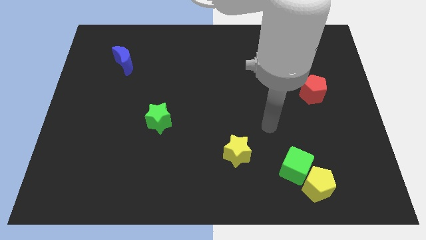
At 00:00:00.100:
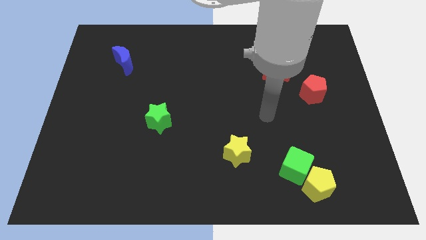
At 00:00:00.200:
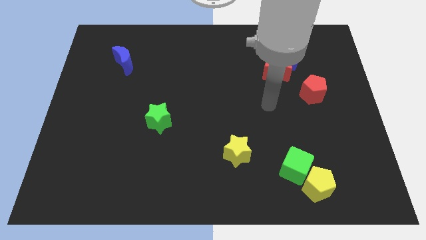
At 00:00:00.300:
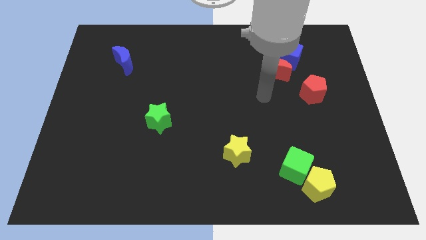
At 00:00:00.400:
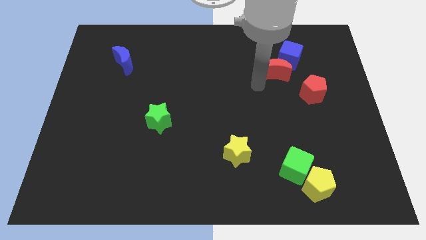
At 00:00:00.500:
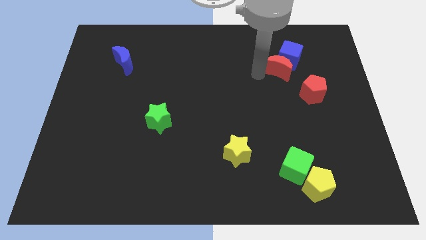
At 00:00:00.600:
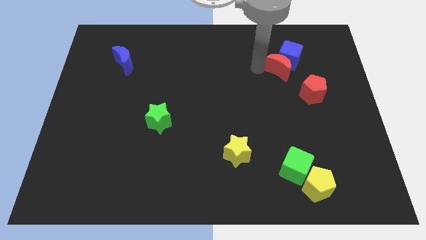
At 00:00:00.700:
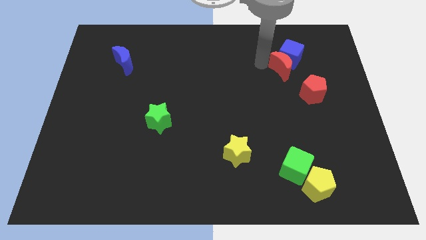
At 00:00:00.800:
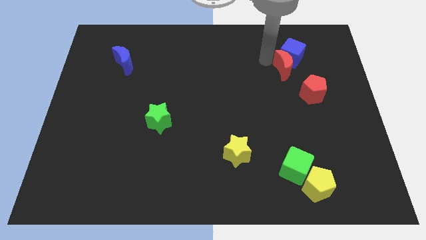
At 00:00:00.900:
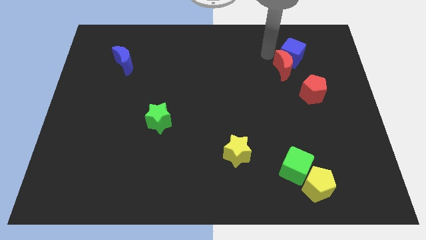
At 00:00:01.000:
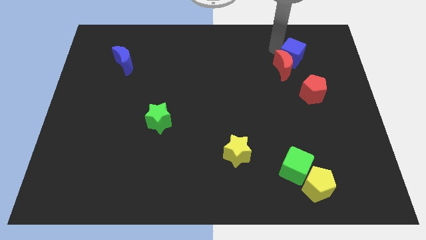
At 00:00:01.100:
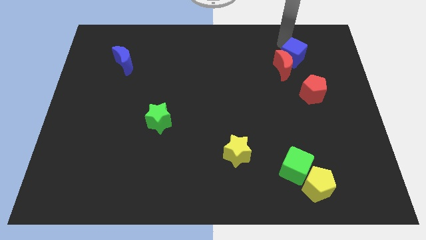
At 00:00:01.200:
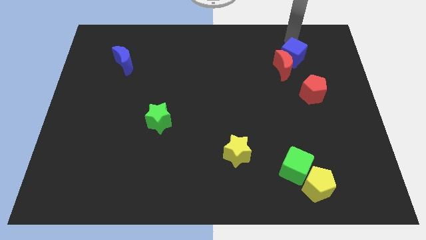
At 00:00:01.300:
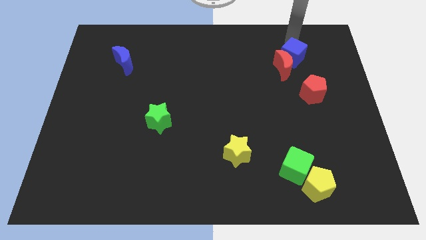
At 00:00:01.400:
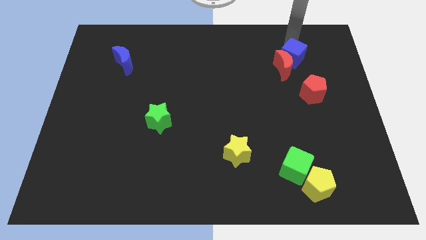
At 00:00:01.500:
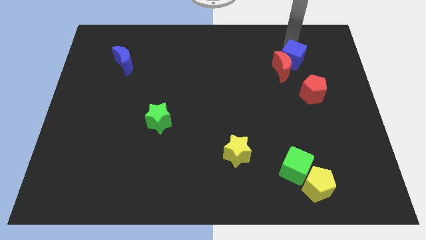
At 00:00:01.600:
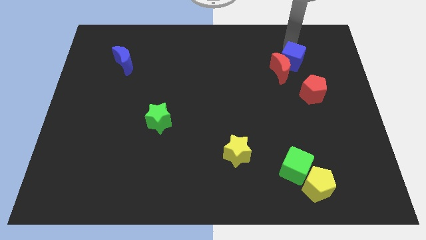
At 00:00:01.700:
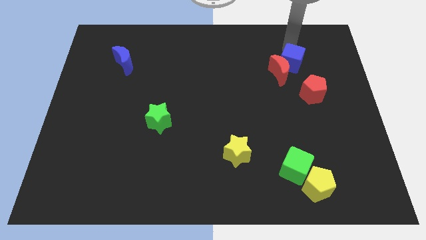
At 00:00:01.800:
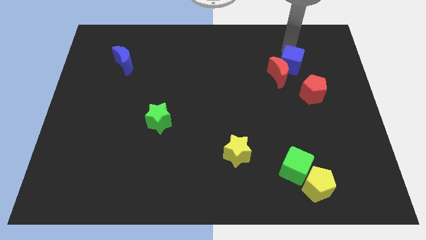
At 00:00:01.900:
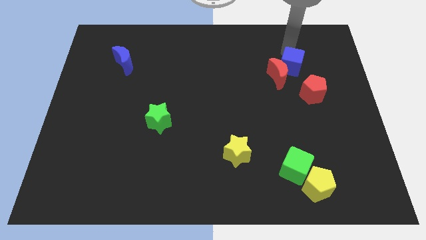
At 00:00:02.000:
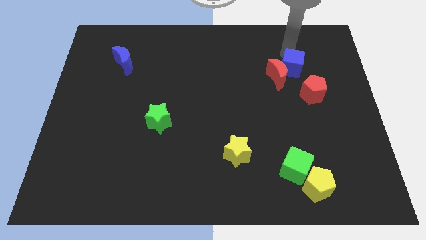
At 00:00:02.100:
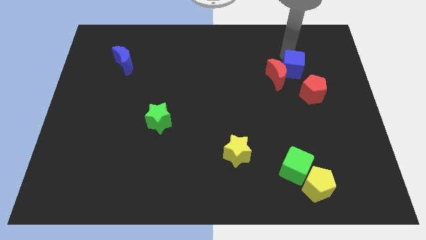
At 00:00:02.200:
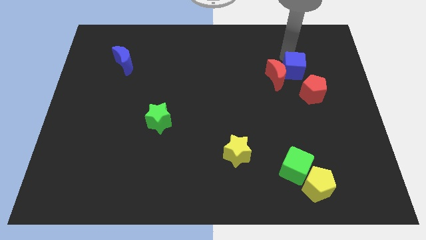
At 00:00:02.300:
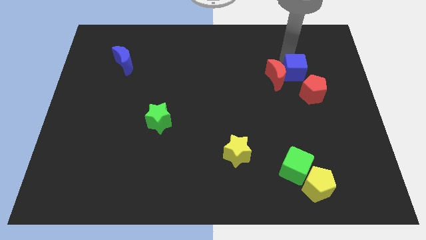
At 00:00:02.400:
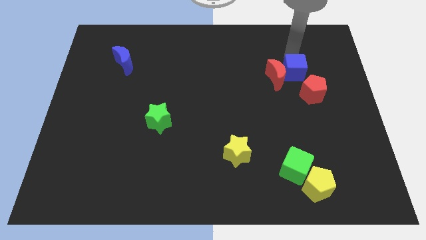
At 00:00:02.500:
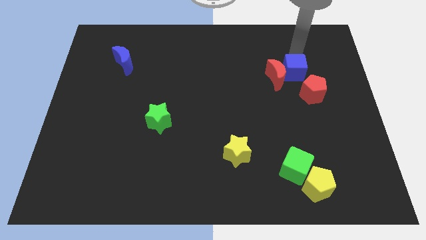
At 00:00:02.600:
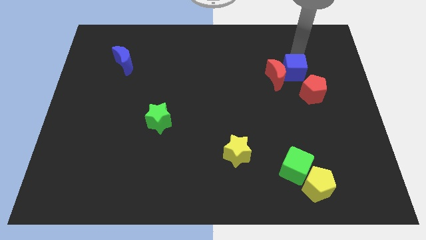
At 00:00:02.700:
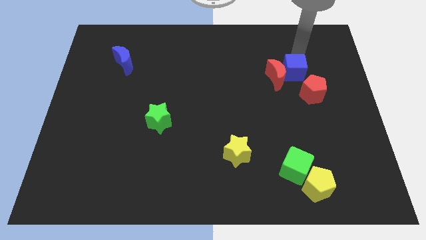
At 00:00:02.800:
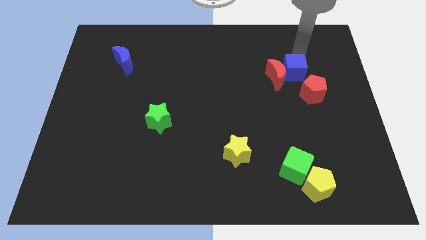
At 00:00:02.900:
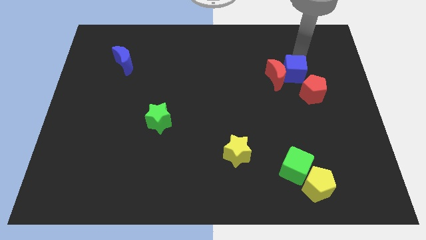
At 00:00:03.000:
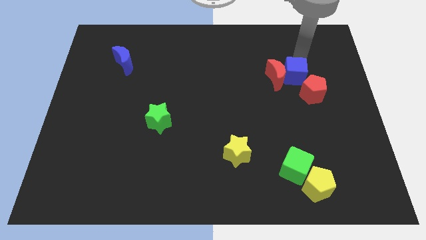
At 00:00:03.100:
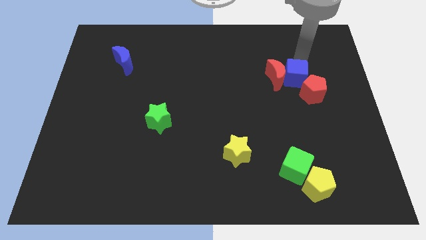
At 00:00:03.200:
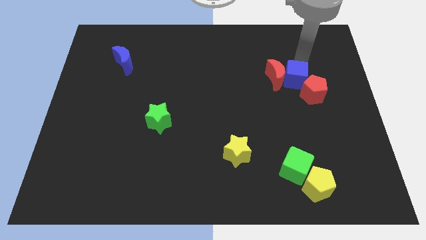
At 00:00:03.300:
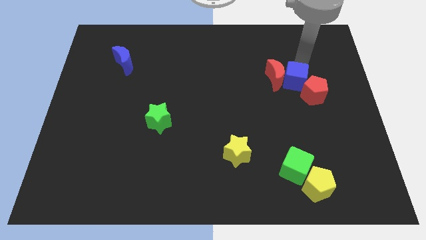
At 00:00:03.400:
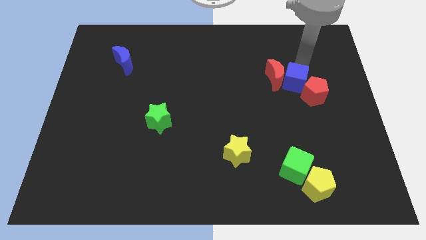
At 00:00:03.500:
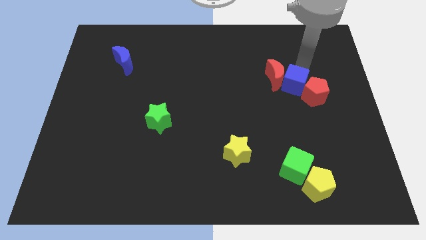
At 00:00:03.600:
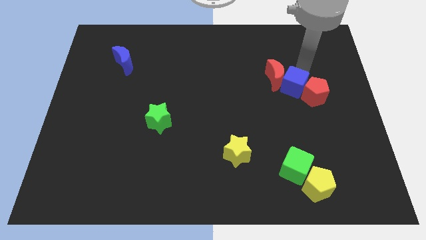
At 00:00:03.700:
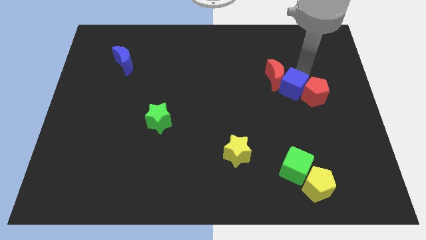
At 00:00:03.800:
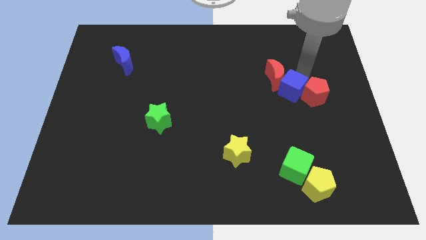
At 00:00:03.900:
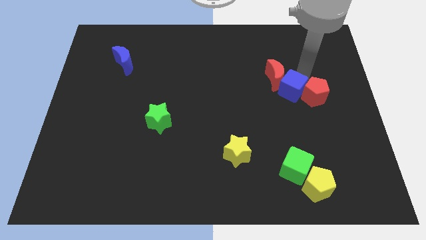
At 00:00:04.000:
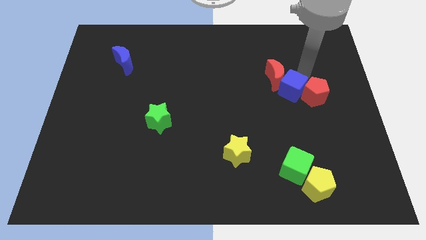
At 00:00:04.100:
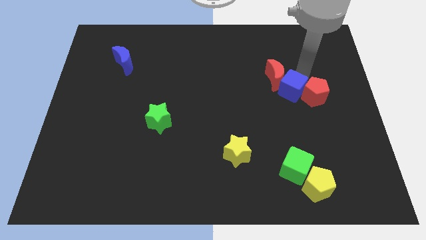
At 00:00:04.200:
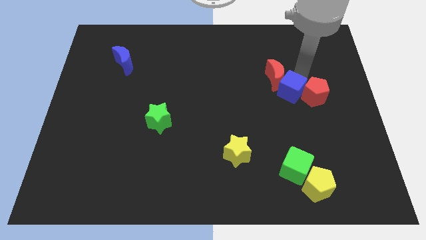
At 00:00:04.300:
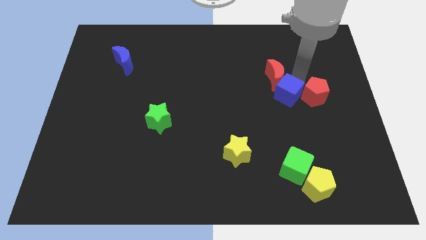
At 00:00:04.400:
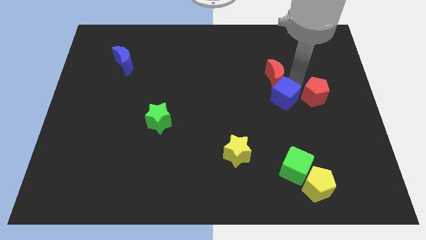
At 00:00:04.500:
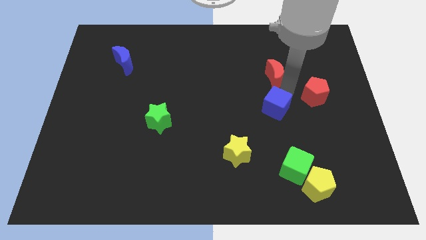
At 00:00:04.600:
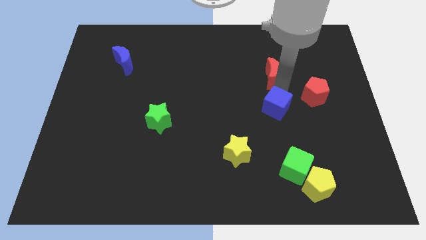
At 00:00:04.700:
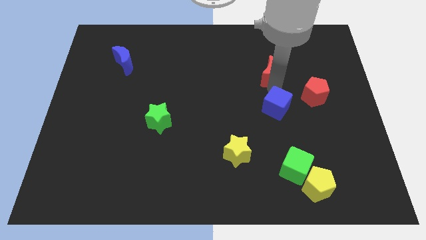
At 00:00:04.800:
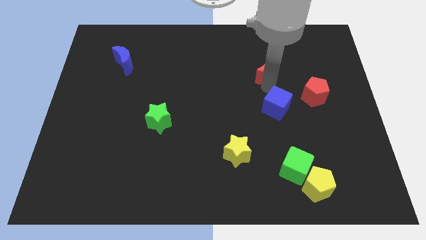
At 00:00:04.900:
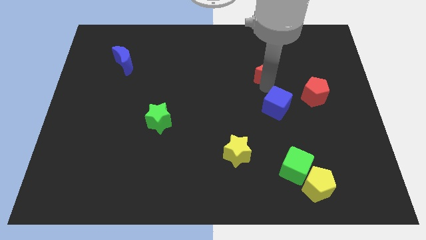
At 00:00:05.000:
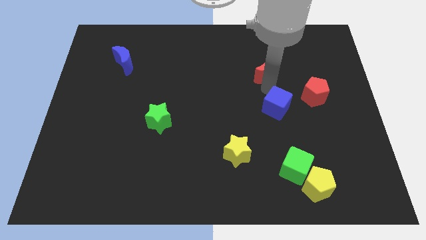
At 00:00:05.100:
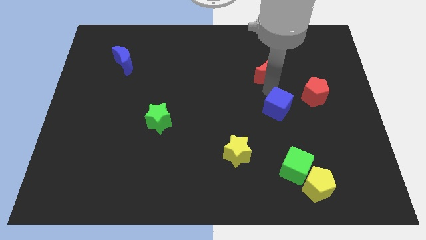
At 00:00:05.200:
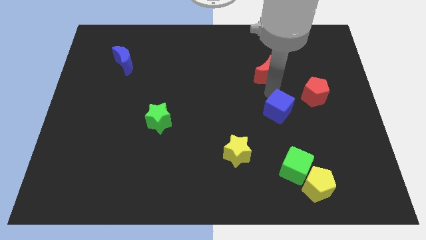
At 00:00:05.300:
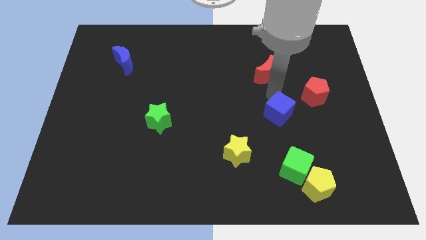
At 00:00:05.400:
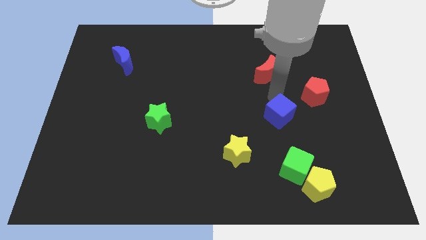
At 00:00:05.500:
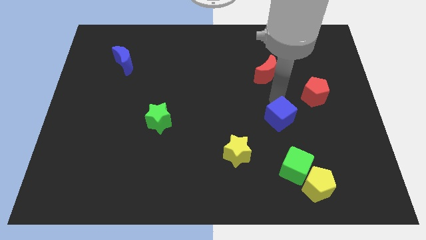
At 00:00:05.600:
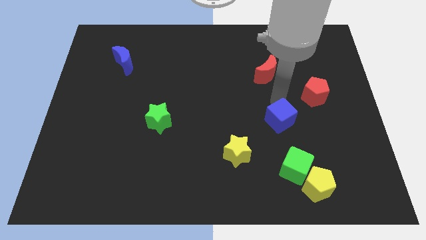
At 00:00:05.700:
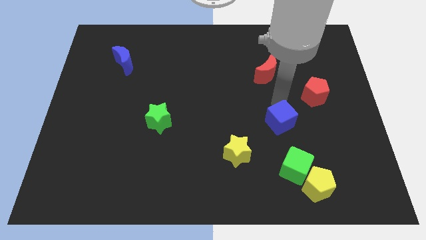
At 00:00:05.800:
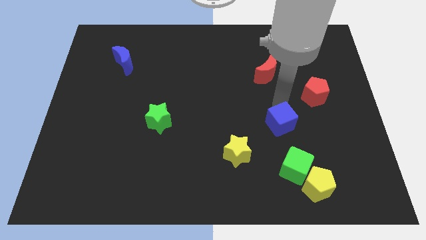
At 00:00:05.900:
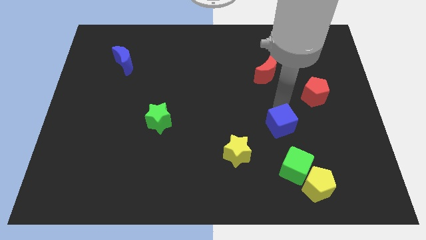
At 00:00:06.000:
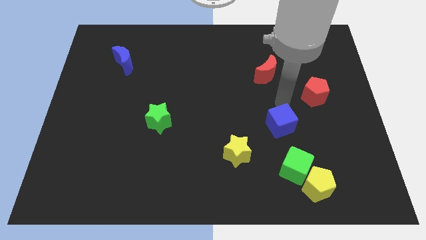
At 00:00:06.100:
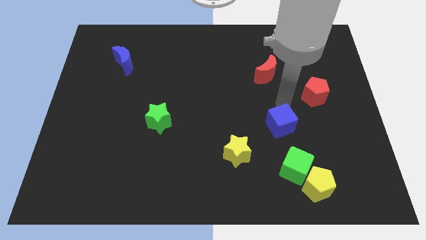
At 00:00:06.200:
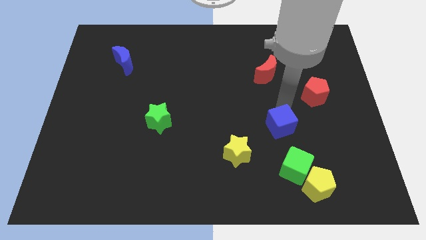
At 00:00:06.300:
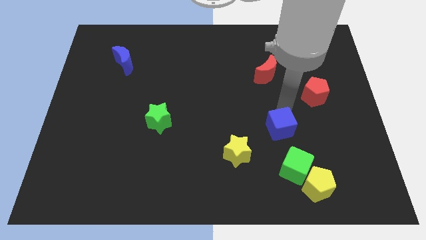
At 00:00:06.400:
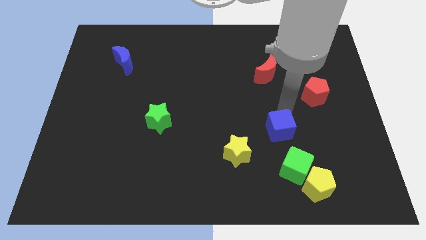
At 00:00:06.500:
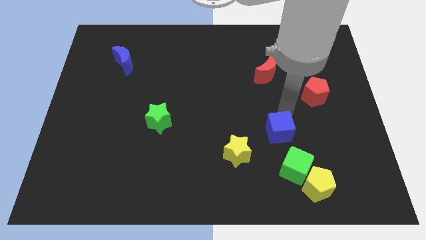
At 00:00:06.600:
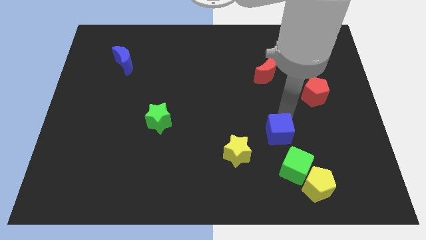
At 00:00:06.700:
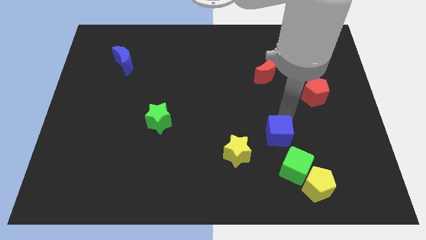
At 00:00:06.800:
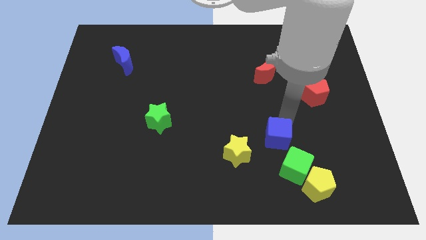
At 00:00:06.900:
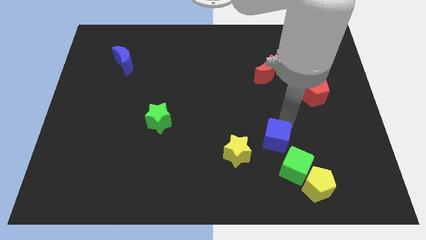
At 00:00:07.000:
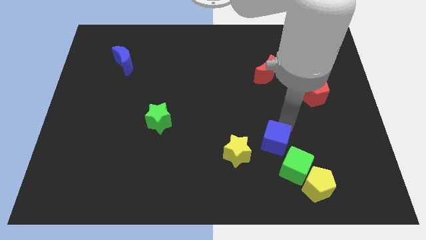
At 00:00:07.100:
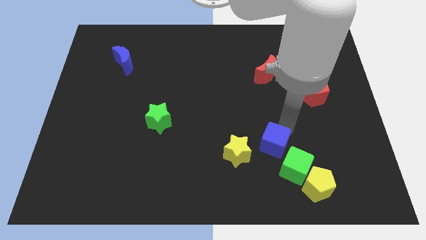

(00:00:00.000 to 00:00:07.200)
move the blue cube diagonally up and to the left of the yellow pentagon
